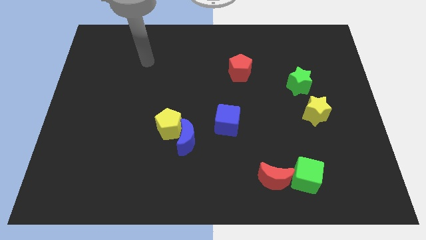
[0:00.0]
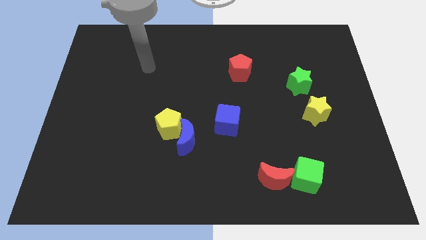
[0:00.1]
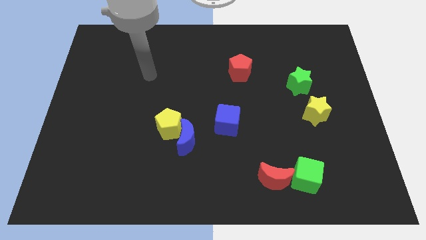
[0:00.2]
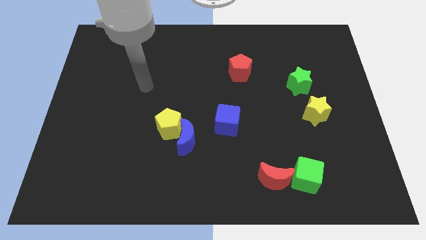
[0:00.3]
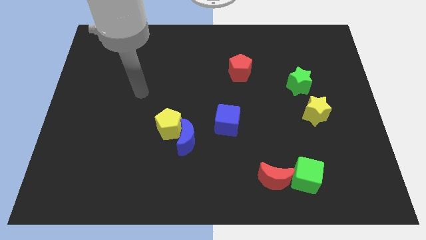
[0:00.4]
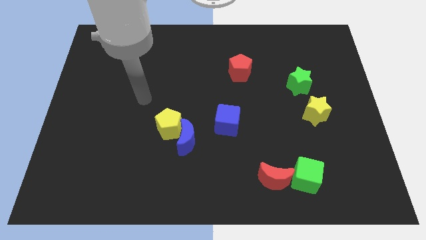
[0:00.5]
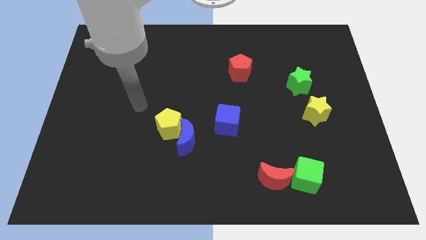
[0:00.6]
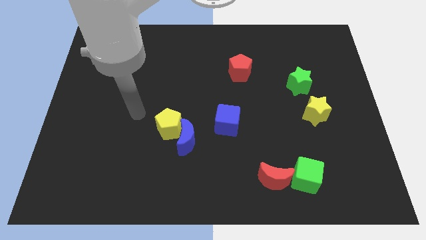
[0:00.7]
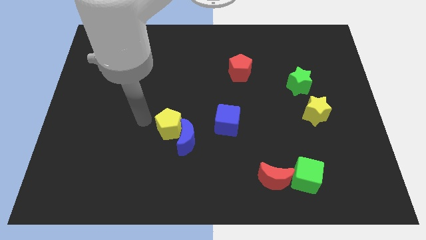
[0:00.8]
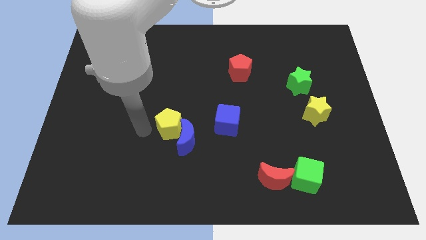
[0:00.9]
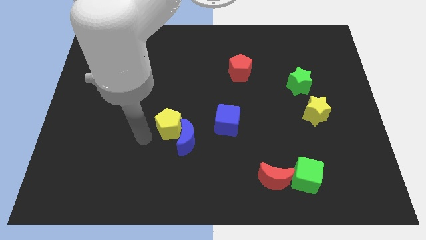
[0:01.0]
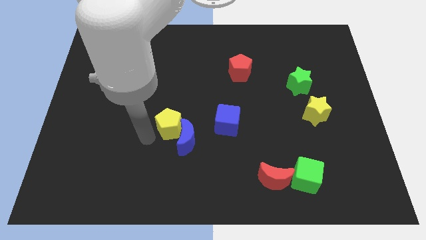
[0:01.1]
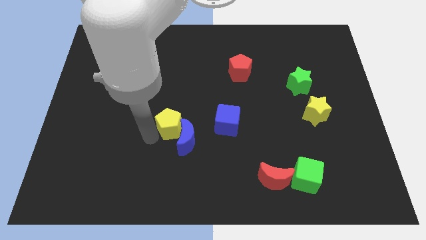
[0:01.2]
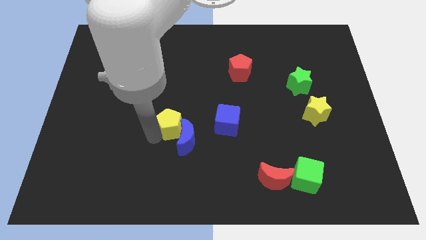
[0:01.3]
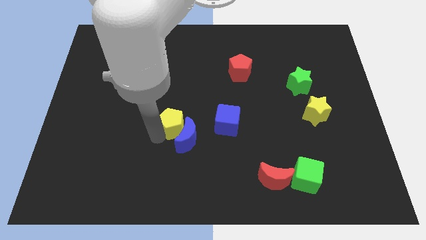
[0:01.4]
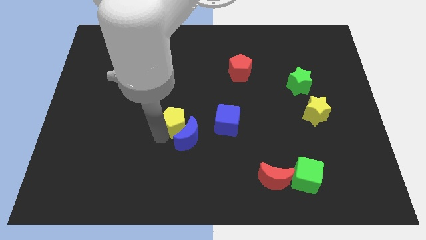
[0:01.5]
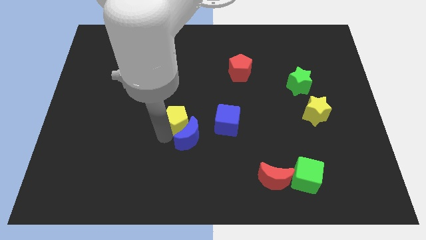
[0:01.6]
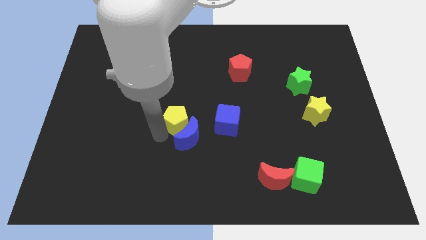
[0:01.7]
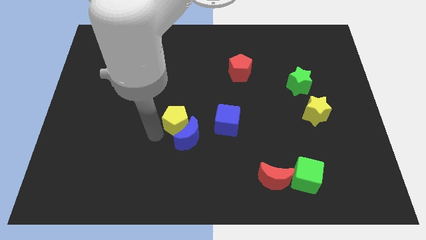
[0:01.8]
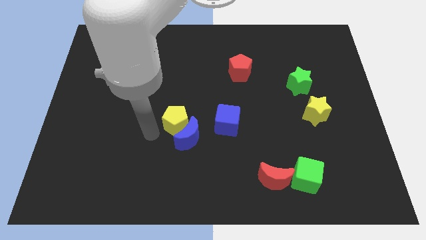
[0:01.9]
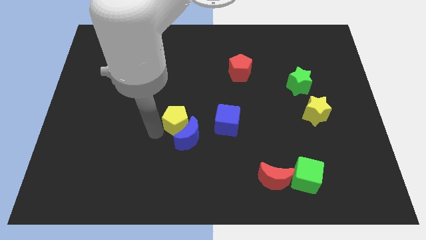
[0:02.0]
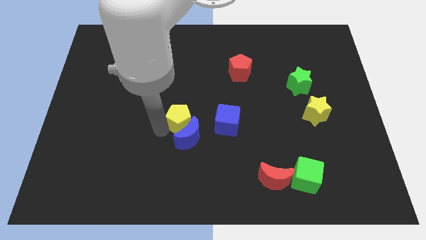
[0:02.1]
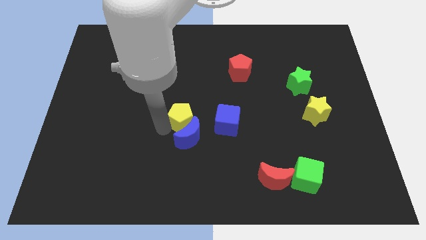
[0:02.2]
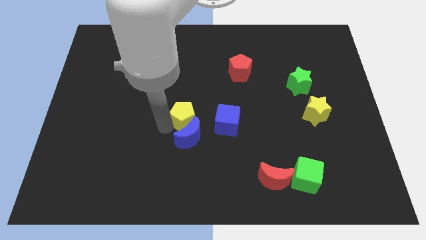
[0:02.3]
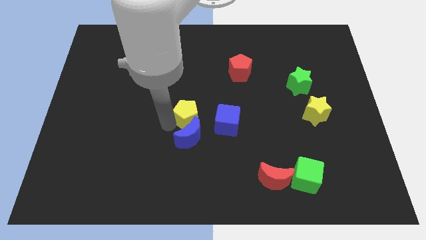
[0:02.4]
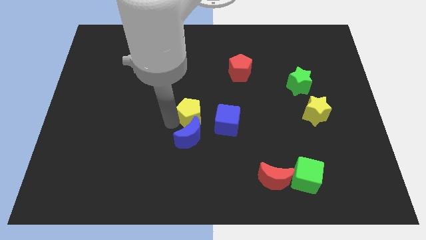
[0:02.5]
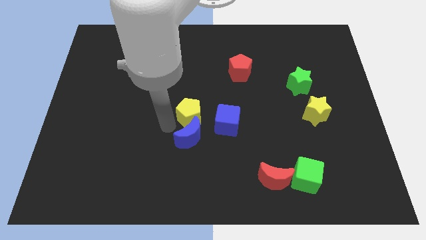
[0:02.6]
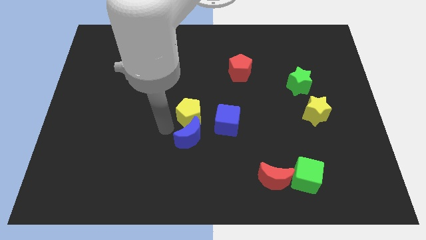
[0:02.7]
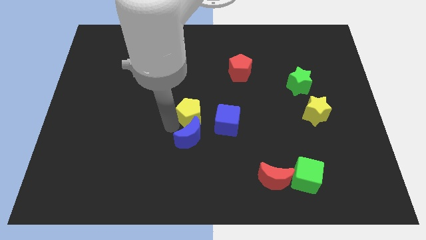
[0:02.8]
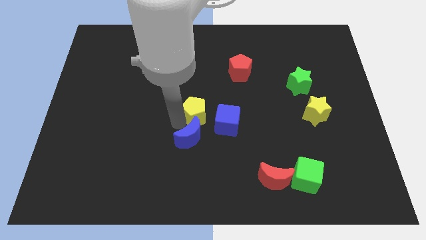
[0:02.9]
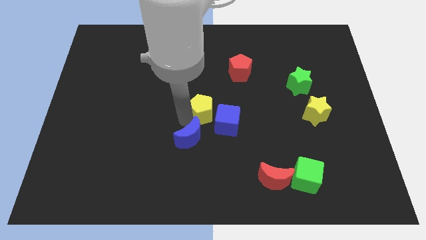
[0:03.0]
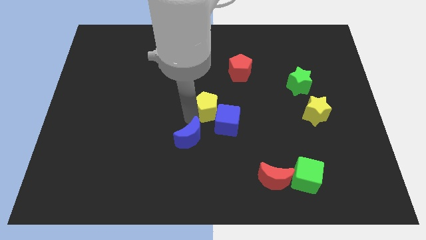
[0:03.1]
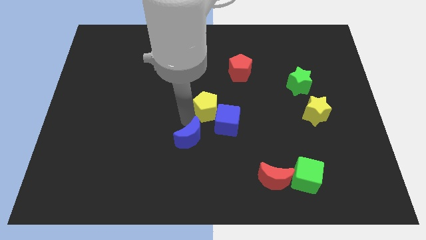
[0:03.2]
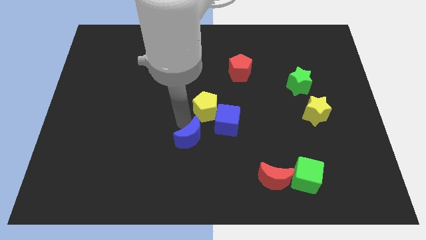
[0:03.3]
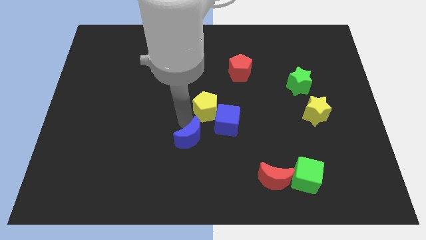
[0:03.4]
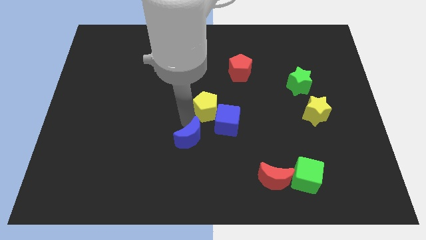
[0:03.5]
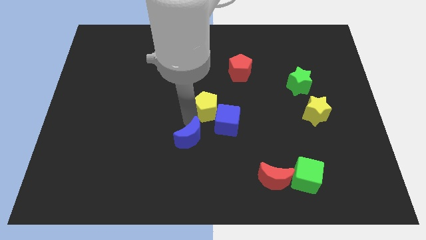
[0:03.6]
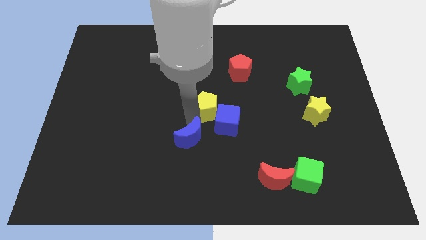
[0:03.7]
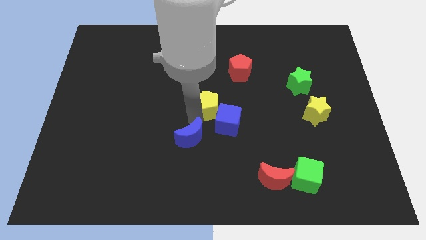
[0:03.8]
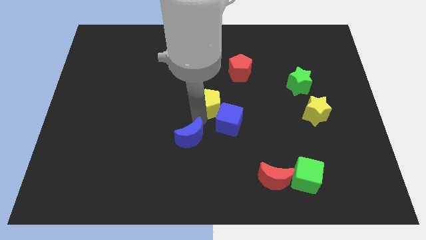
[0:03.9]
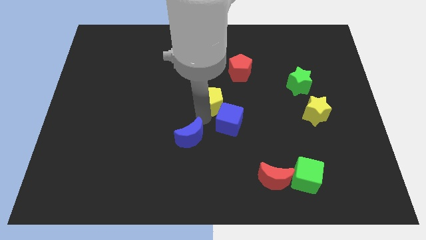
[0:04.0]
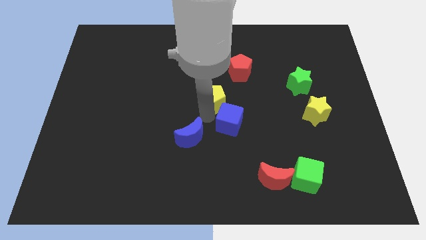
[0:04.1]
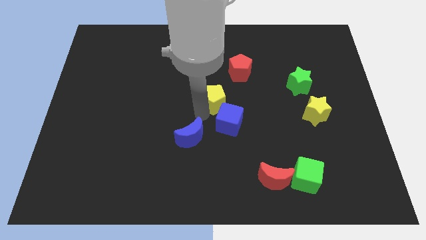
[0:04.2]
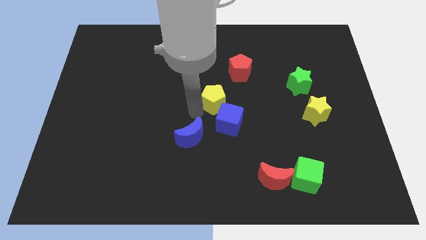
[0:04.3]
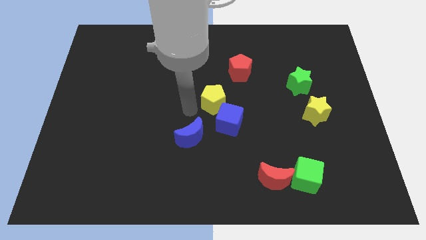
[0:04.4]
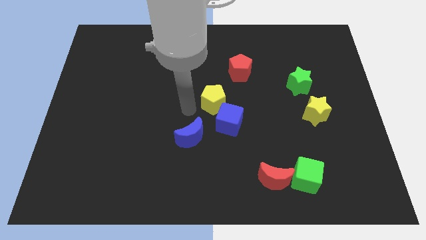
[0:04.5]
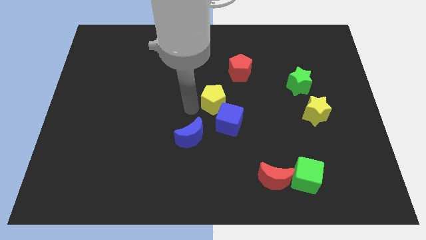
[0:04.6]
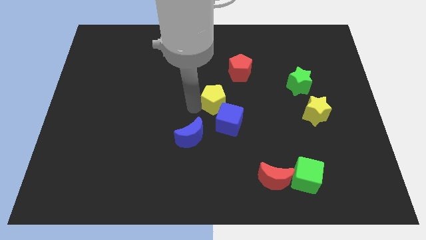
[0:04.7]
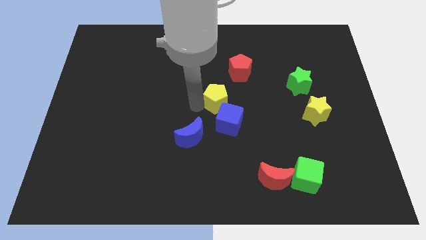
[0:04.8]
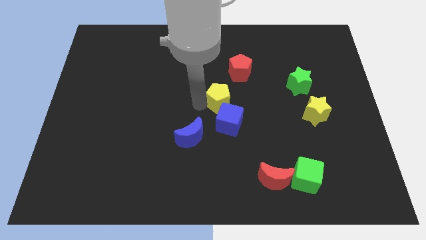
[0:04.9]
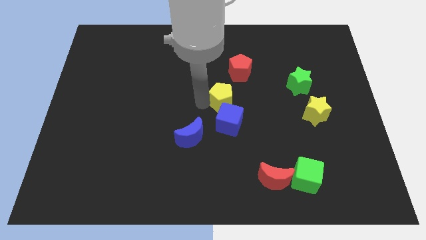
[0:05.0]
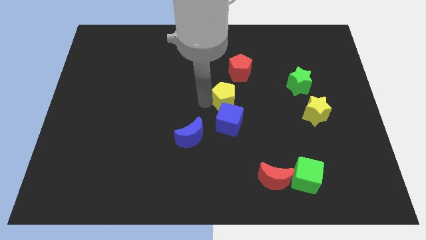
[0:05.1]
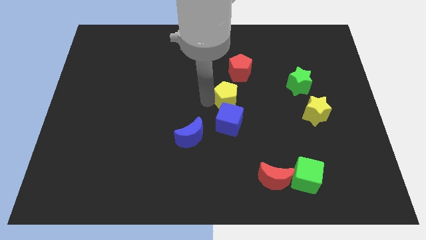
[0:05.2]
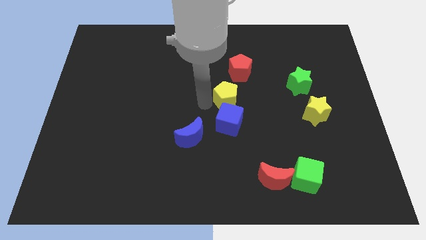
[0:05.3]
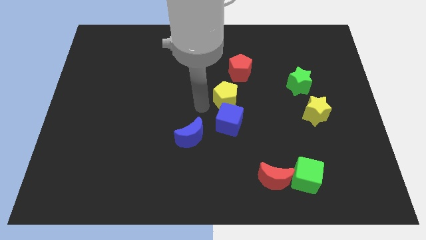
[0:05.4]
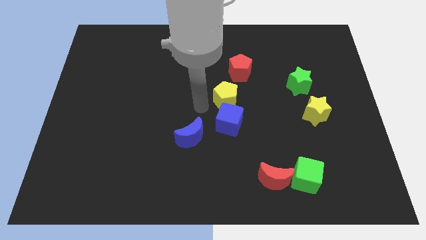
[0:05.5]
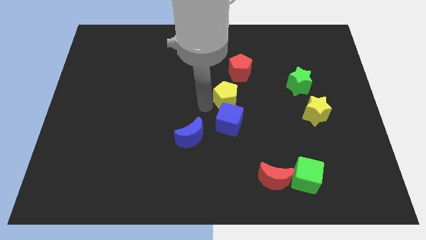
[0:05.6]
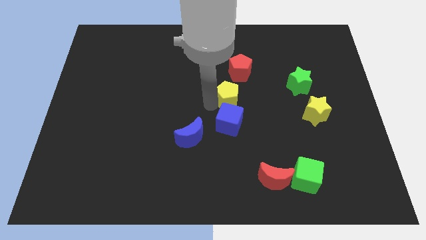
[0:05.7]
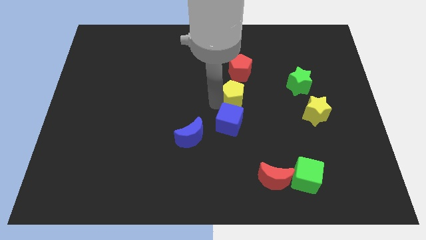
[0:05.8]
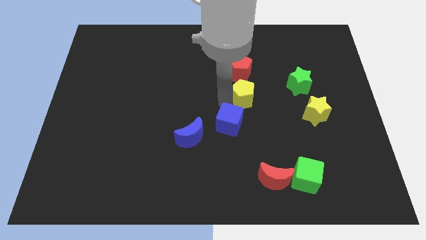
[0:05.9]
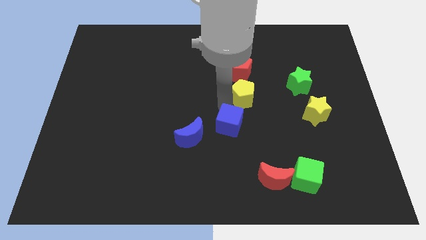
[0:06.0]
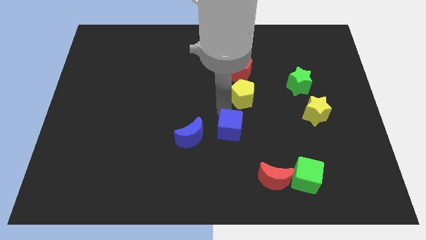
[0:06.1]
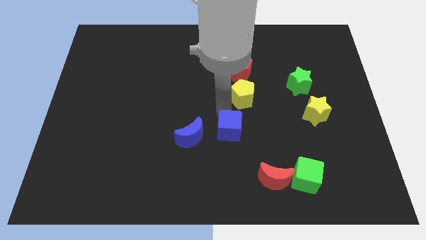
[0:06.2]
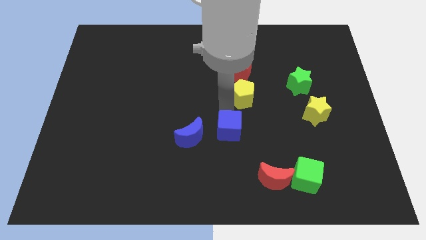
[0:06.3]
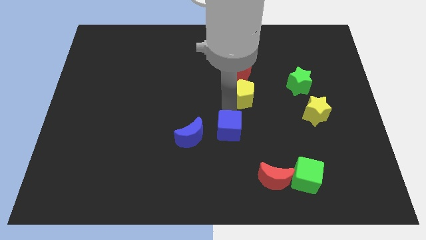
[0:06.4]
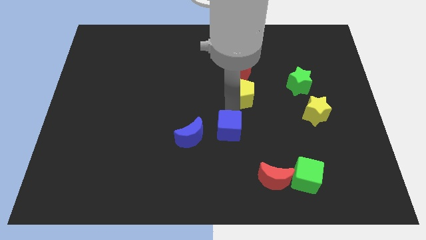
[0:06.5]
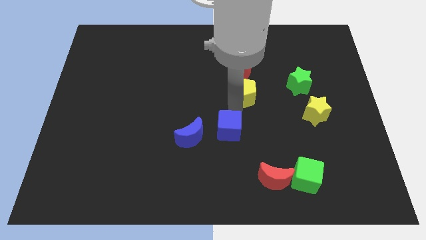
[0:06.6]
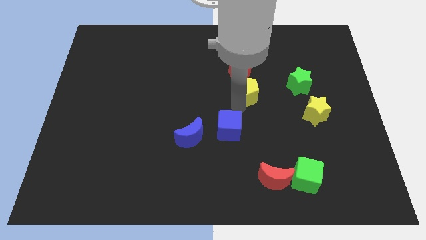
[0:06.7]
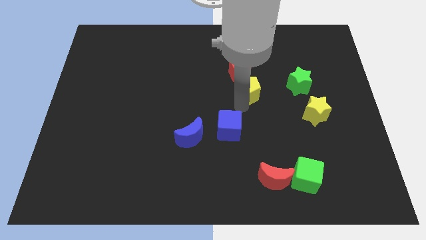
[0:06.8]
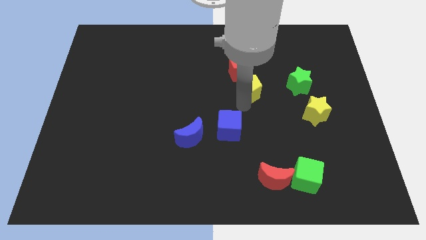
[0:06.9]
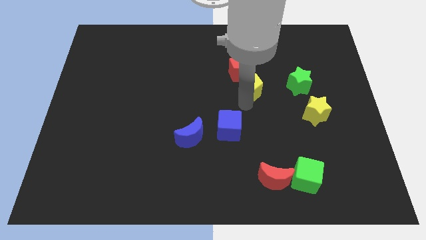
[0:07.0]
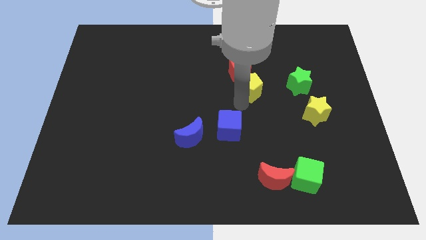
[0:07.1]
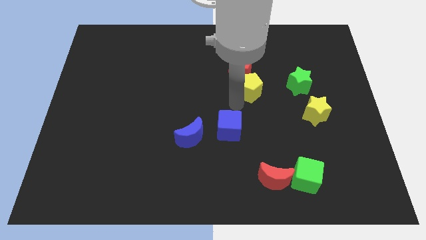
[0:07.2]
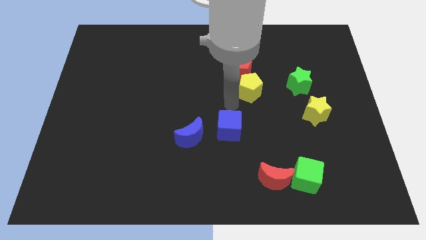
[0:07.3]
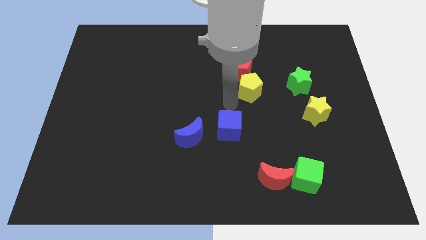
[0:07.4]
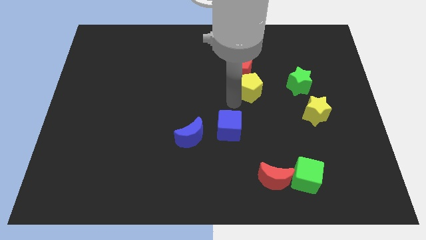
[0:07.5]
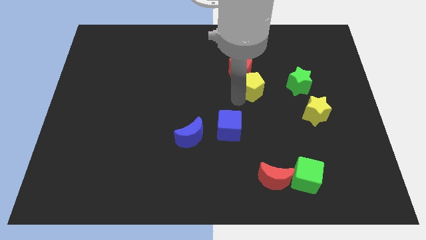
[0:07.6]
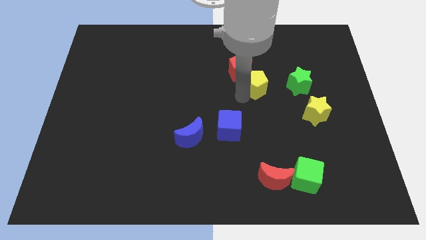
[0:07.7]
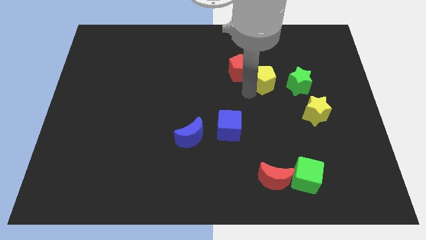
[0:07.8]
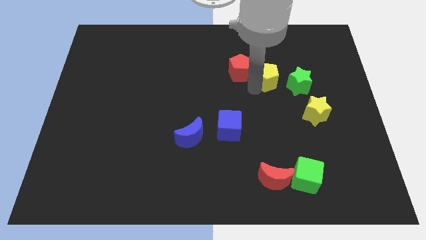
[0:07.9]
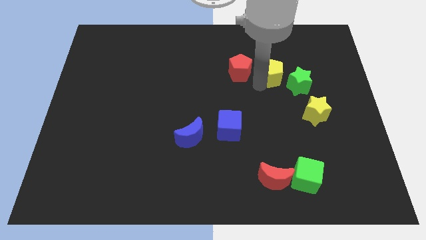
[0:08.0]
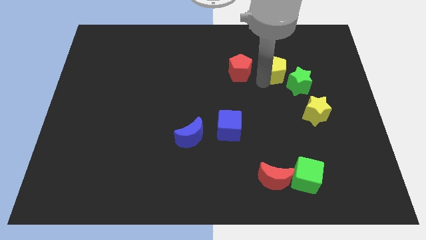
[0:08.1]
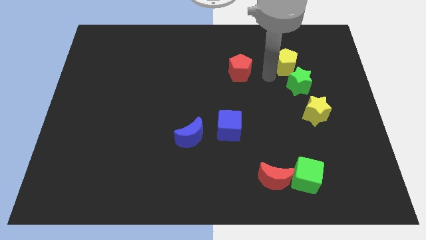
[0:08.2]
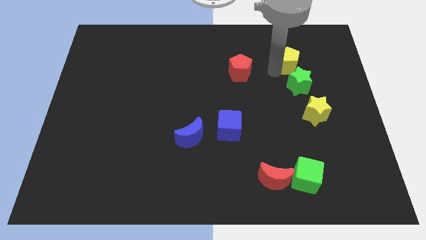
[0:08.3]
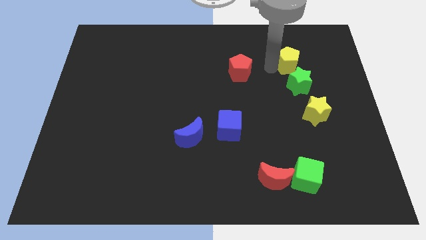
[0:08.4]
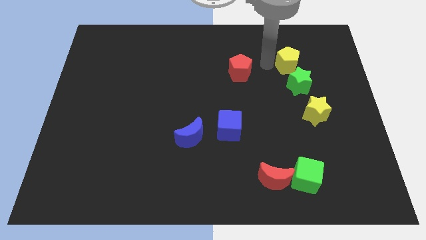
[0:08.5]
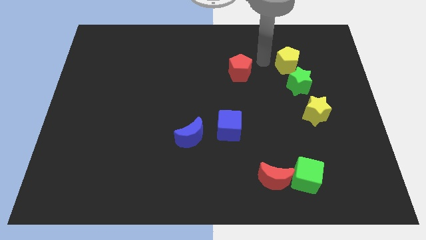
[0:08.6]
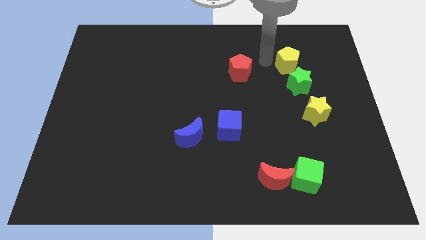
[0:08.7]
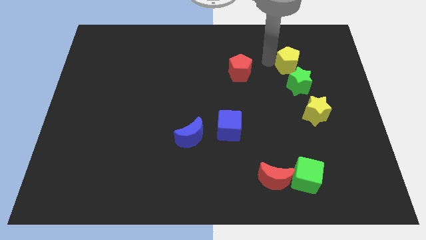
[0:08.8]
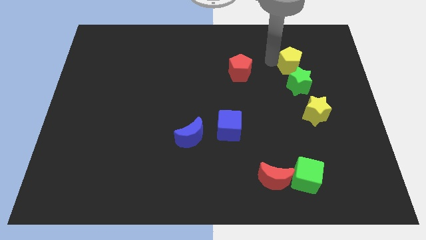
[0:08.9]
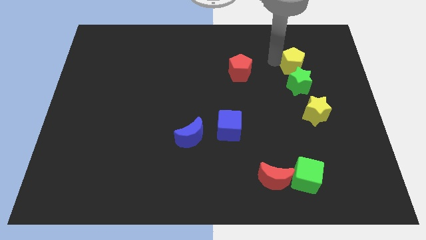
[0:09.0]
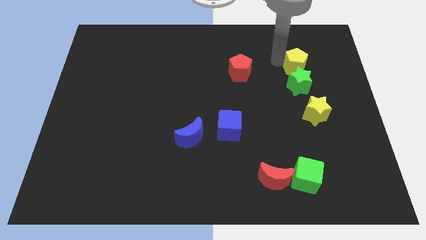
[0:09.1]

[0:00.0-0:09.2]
slide the yellow pentagon to the top right side of the green star
